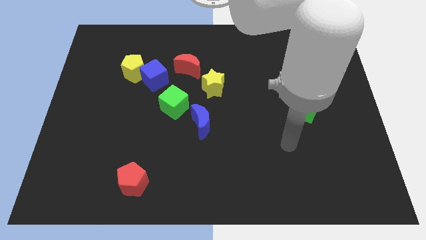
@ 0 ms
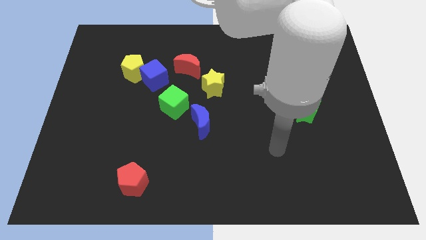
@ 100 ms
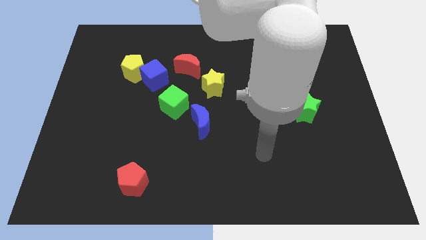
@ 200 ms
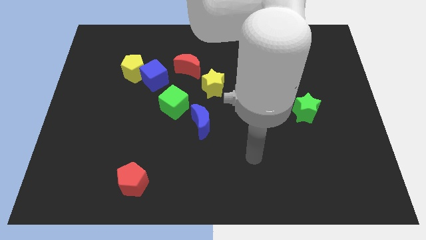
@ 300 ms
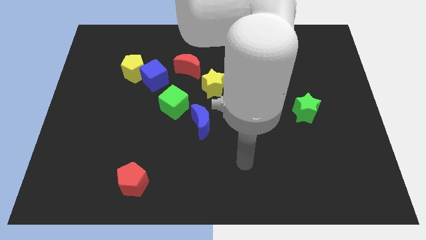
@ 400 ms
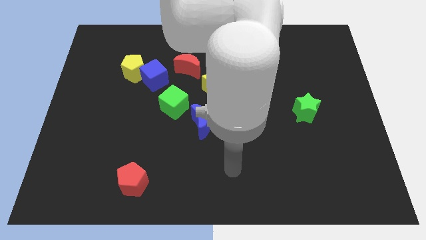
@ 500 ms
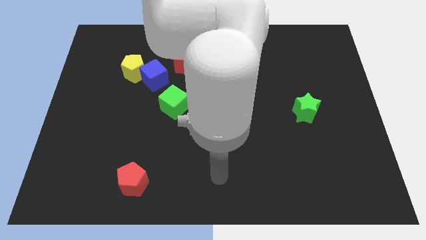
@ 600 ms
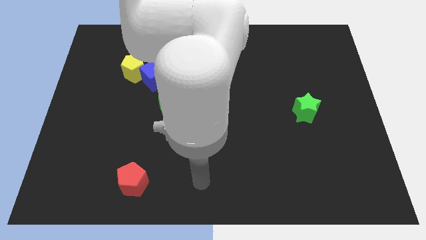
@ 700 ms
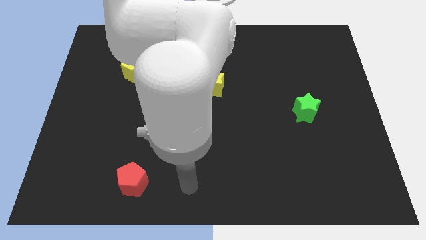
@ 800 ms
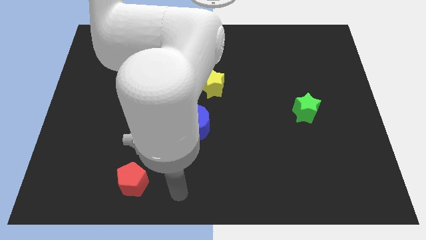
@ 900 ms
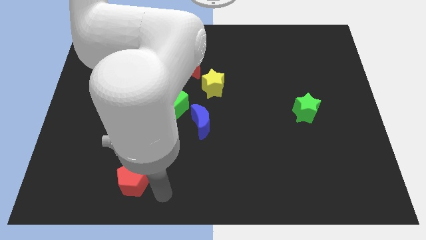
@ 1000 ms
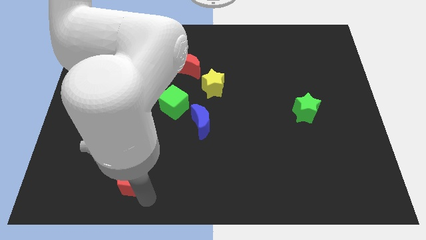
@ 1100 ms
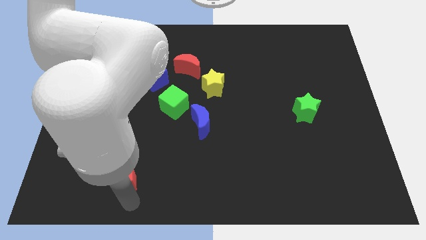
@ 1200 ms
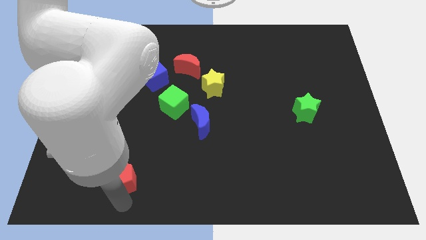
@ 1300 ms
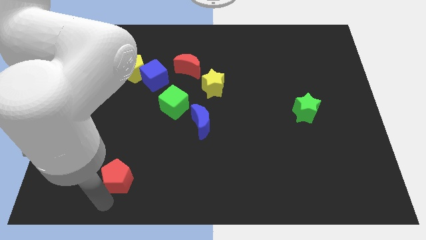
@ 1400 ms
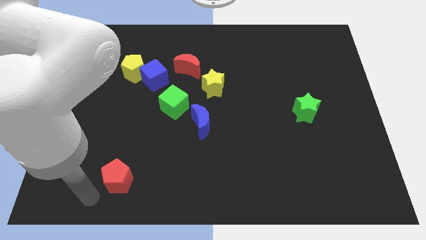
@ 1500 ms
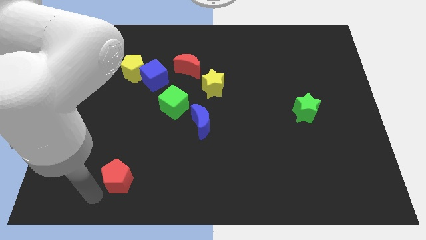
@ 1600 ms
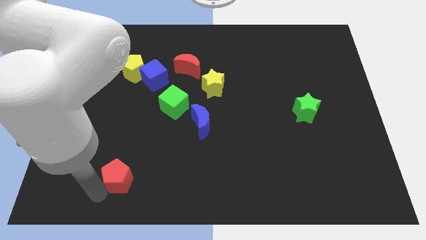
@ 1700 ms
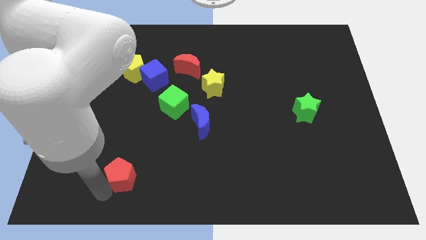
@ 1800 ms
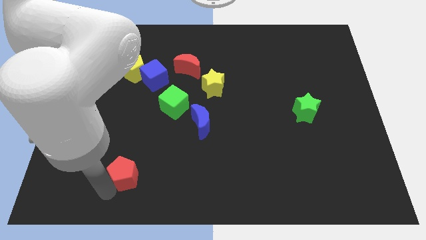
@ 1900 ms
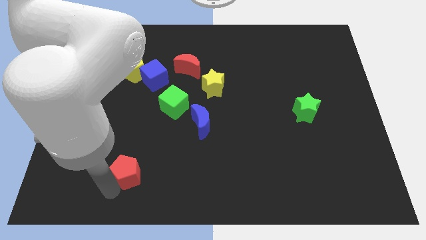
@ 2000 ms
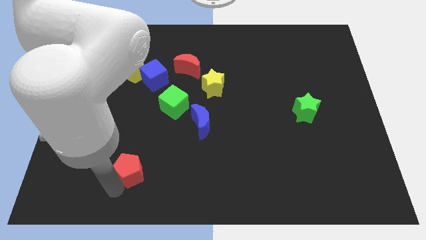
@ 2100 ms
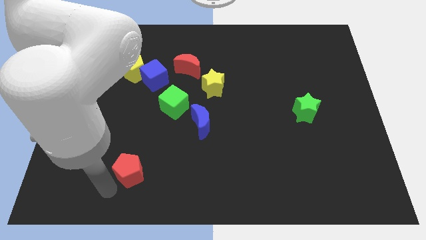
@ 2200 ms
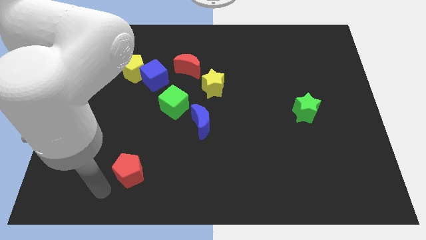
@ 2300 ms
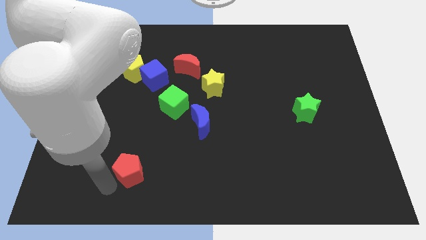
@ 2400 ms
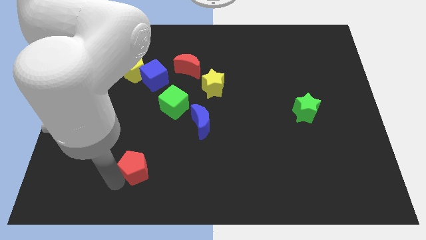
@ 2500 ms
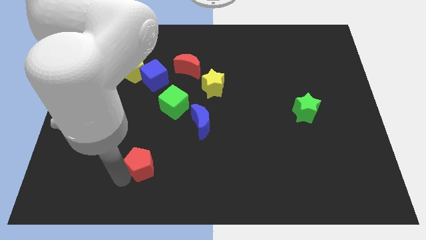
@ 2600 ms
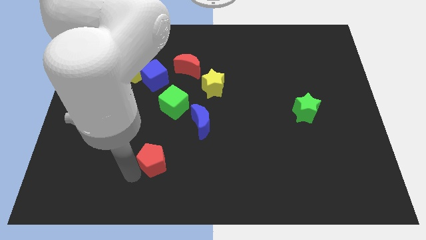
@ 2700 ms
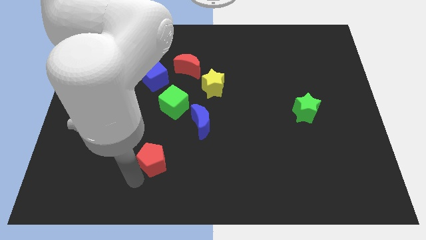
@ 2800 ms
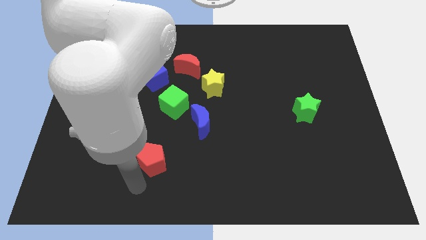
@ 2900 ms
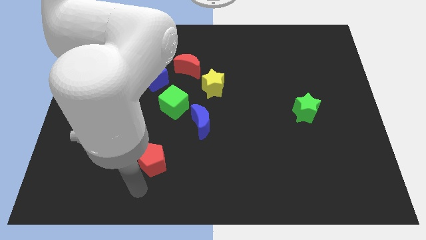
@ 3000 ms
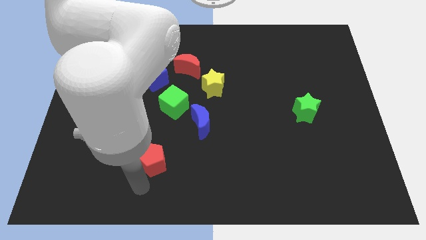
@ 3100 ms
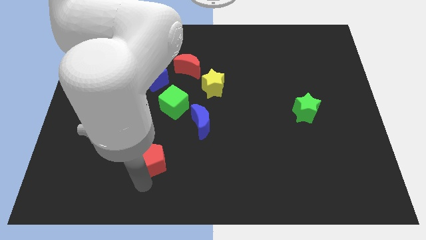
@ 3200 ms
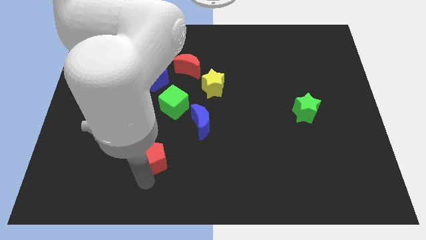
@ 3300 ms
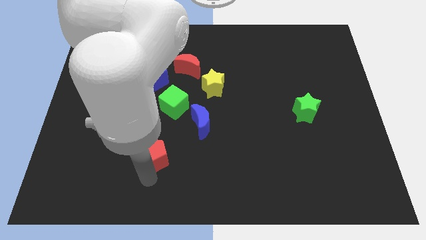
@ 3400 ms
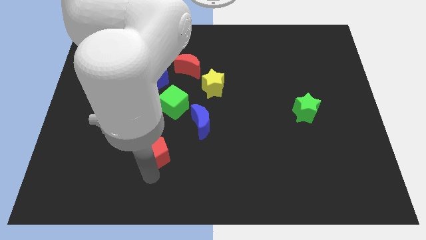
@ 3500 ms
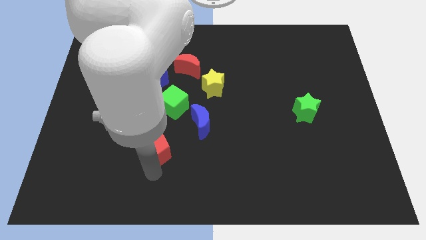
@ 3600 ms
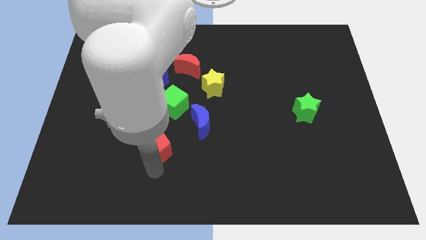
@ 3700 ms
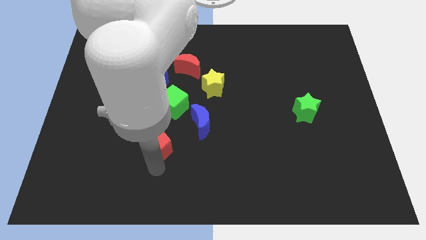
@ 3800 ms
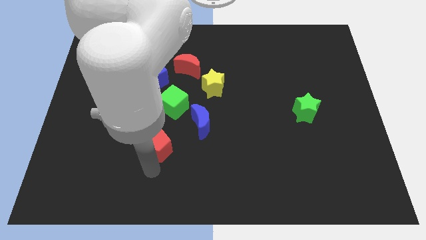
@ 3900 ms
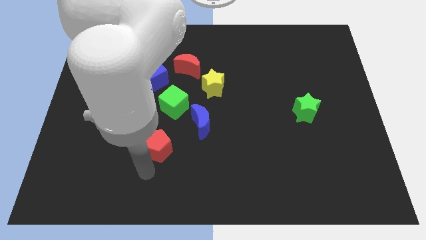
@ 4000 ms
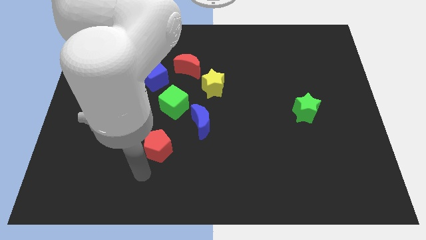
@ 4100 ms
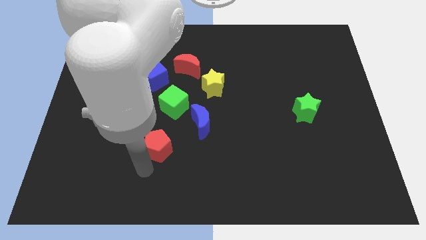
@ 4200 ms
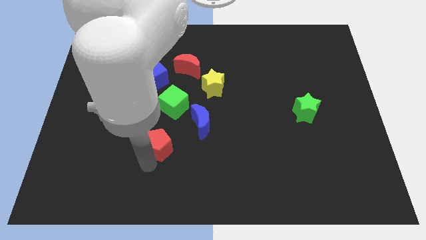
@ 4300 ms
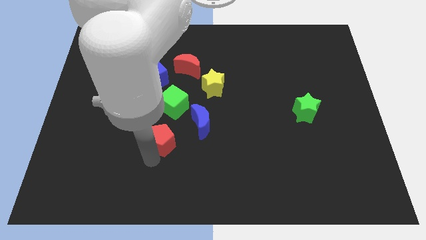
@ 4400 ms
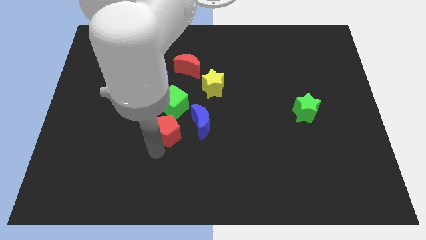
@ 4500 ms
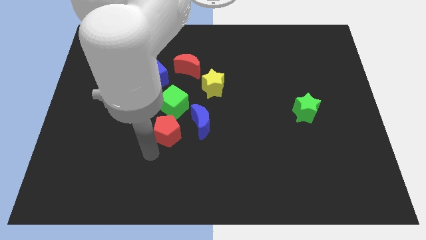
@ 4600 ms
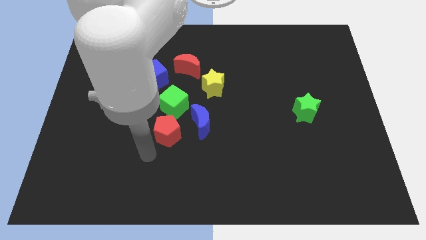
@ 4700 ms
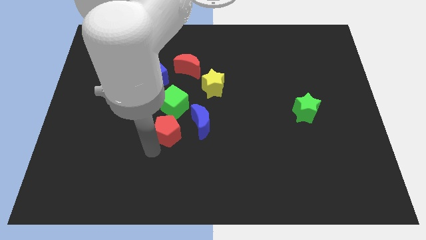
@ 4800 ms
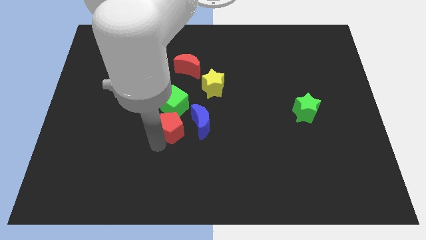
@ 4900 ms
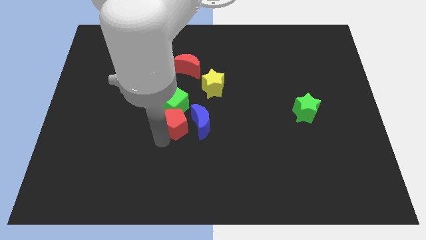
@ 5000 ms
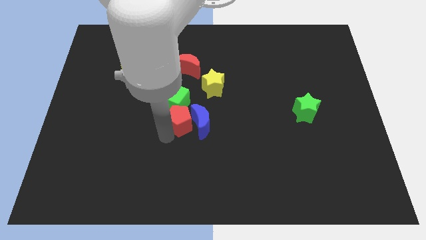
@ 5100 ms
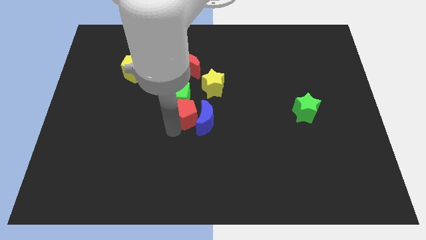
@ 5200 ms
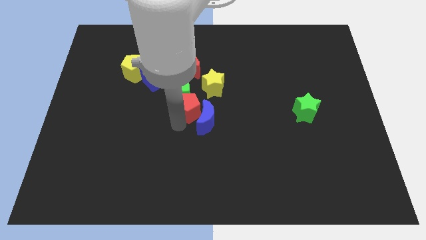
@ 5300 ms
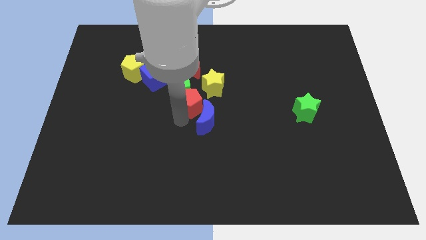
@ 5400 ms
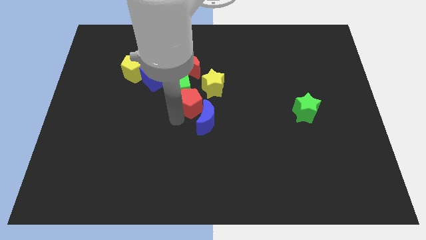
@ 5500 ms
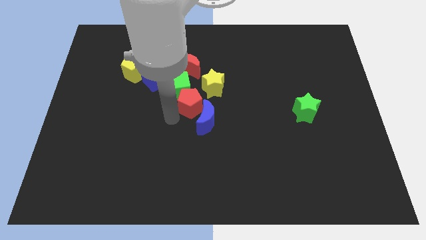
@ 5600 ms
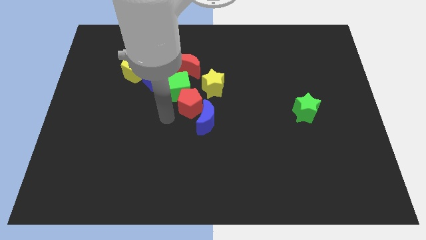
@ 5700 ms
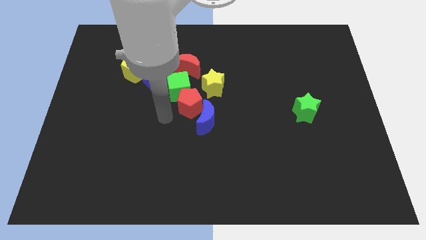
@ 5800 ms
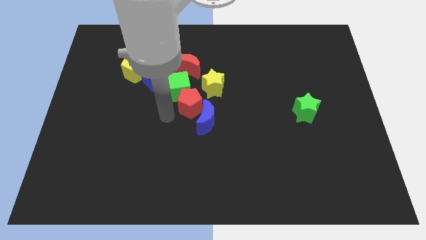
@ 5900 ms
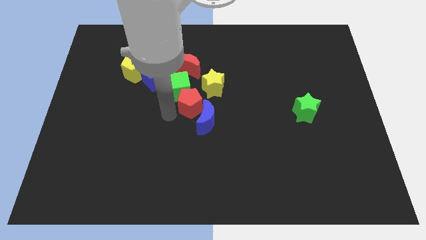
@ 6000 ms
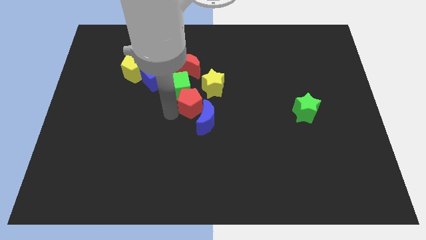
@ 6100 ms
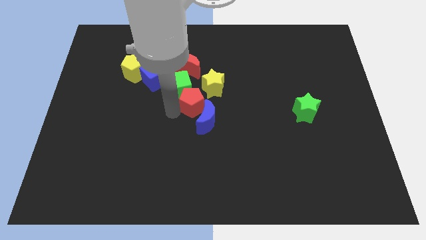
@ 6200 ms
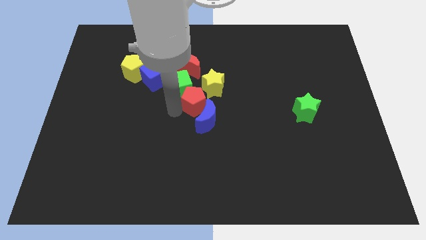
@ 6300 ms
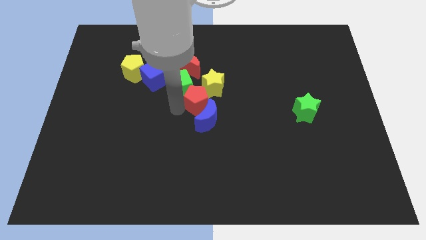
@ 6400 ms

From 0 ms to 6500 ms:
slide the red pentagon towards the yellow star
